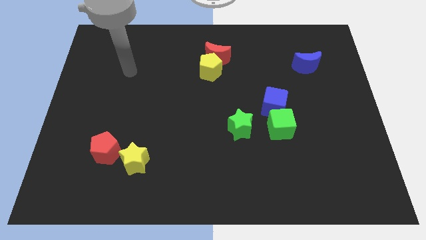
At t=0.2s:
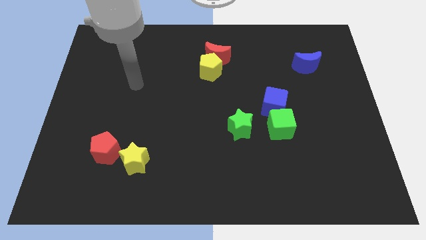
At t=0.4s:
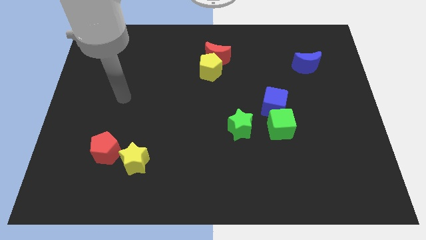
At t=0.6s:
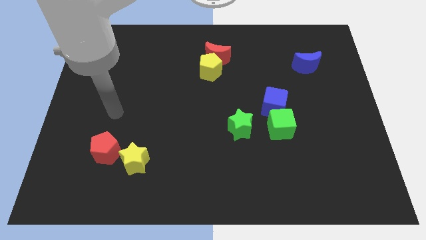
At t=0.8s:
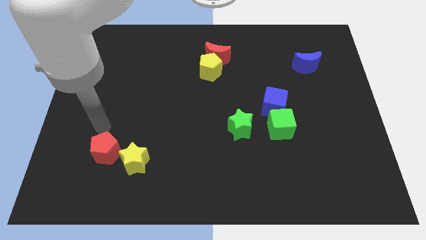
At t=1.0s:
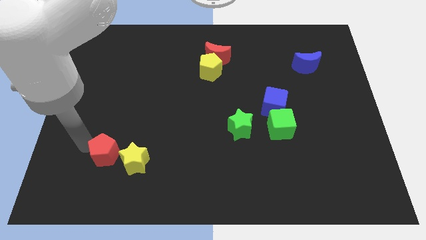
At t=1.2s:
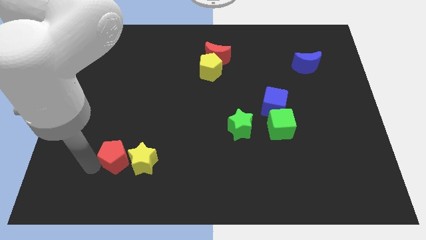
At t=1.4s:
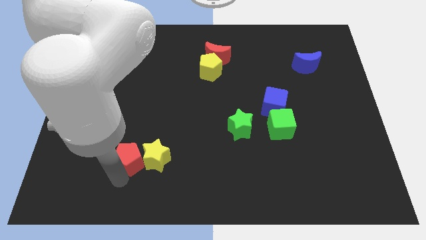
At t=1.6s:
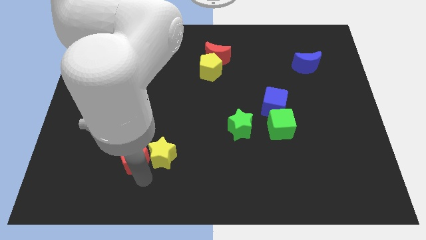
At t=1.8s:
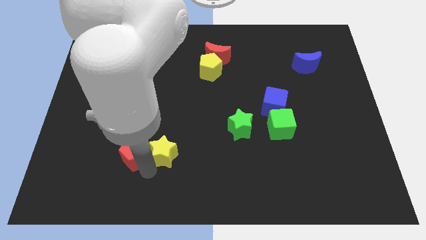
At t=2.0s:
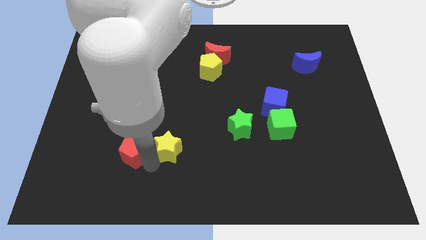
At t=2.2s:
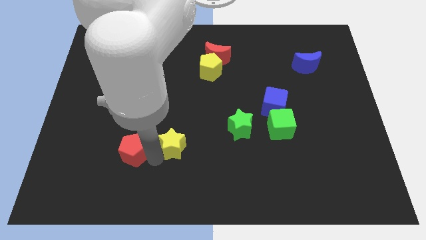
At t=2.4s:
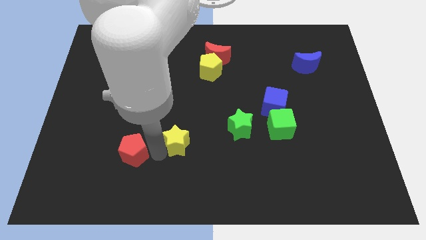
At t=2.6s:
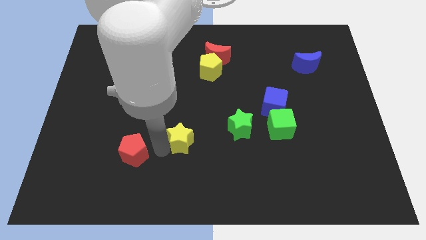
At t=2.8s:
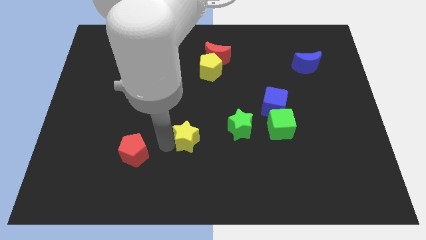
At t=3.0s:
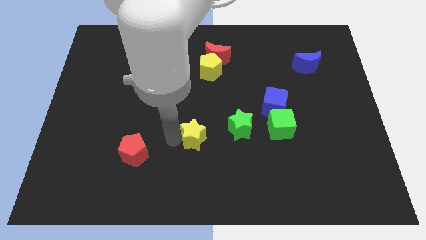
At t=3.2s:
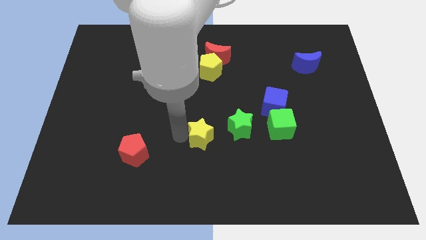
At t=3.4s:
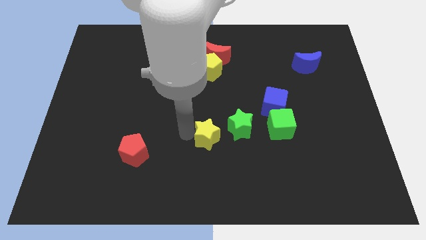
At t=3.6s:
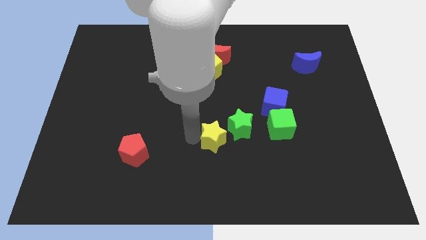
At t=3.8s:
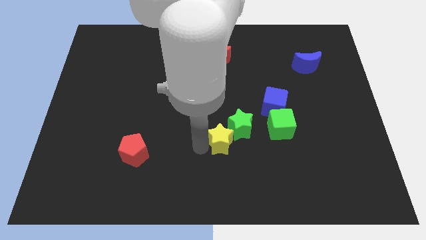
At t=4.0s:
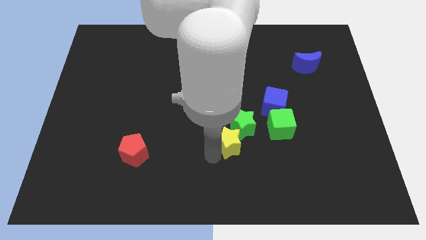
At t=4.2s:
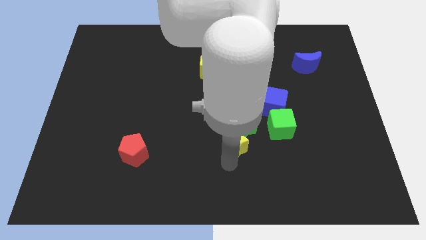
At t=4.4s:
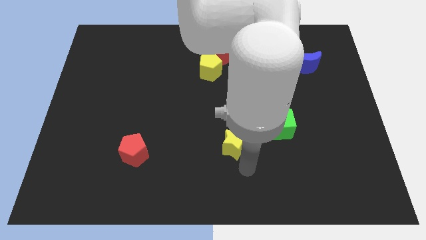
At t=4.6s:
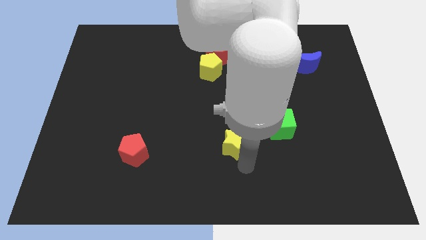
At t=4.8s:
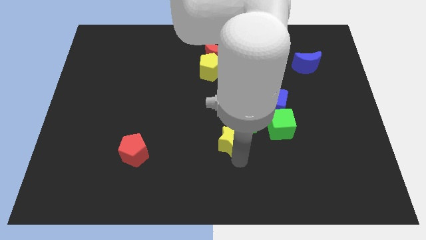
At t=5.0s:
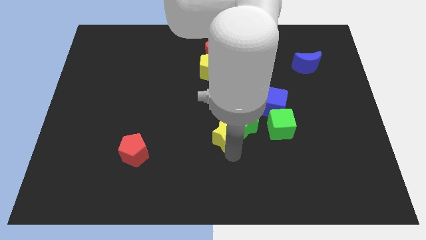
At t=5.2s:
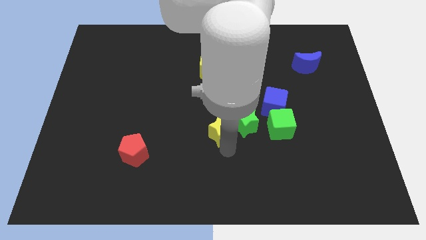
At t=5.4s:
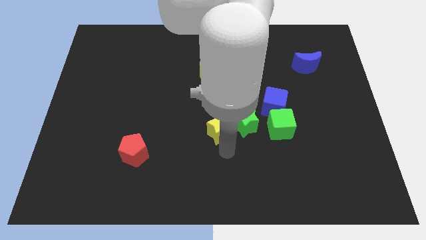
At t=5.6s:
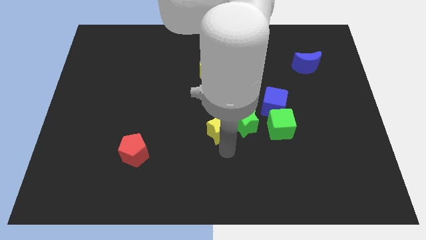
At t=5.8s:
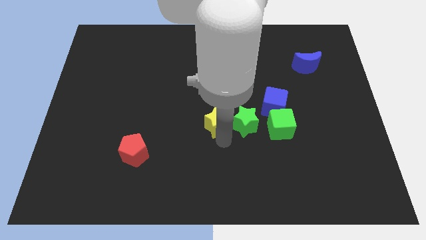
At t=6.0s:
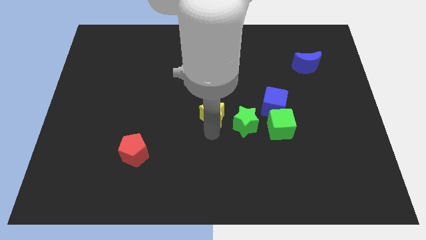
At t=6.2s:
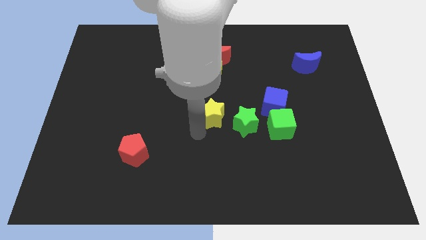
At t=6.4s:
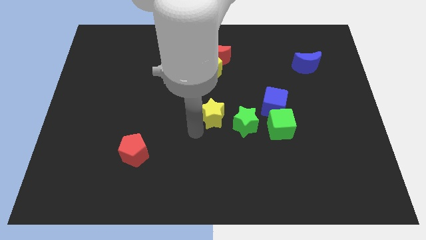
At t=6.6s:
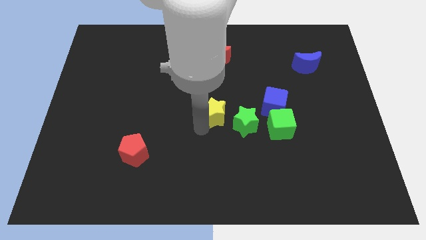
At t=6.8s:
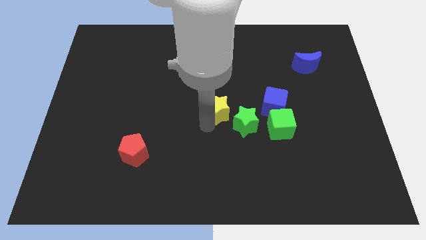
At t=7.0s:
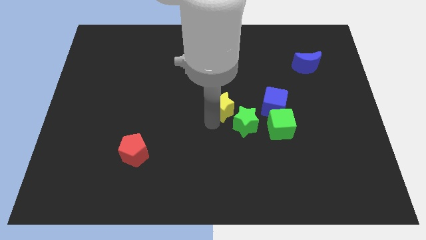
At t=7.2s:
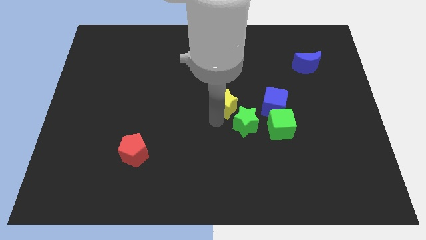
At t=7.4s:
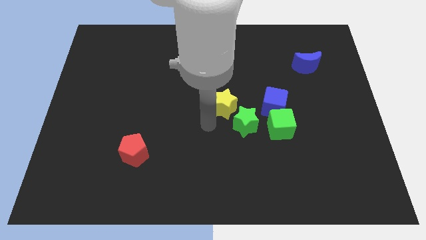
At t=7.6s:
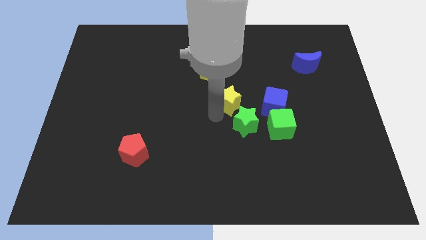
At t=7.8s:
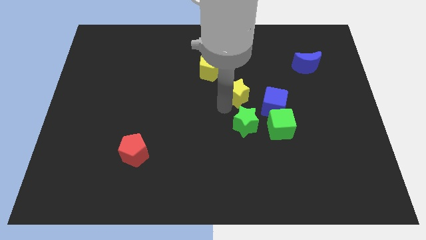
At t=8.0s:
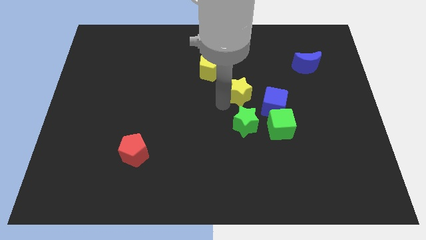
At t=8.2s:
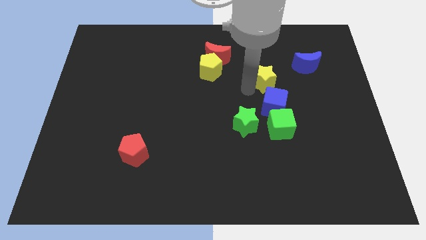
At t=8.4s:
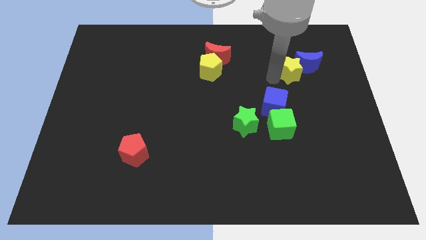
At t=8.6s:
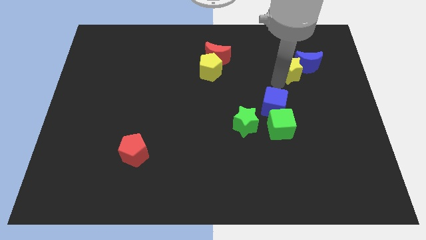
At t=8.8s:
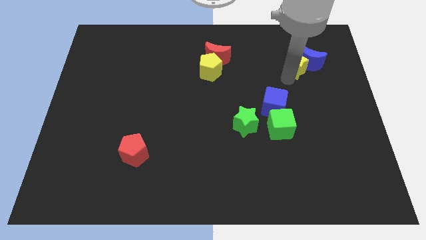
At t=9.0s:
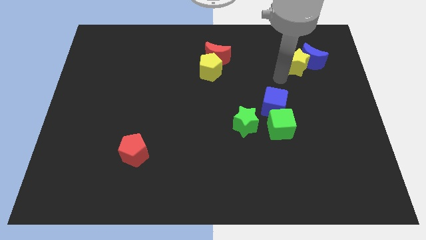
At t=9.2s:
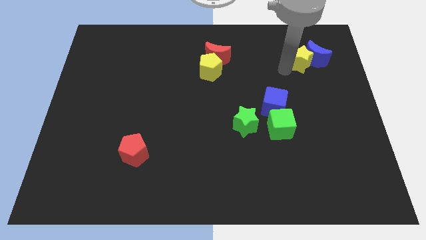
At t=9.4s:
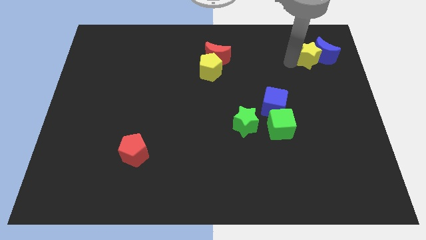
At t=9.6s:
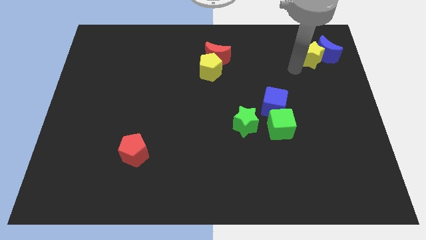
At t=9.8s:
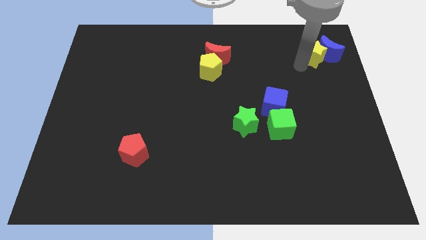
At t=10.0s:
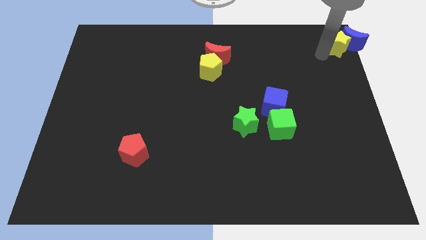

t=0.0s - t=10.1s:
push the yellow star to the top right

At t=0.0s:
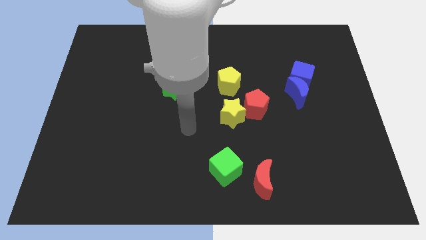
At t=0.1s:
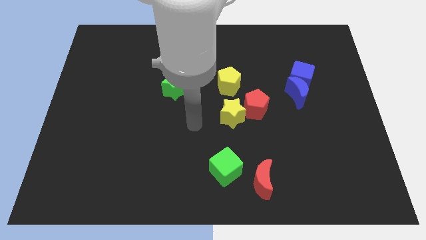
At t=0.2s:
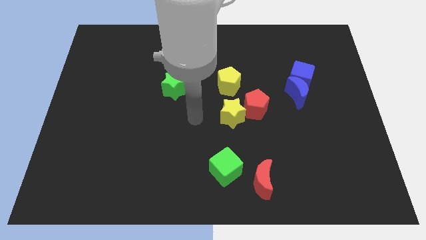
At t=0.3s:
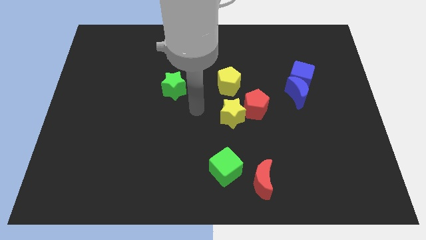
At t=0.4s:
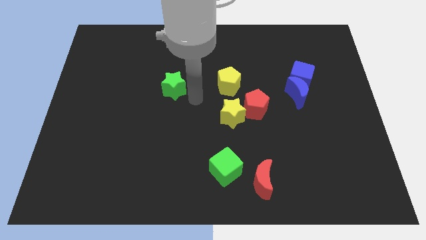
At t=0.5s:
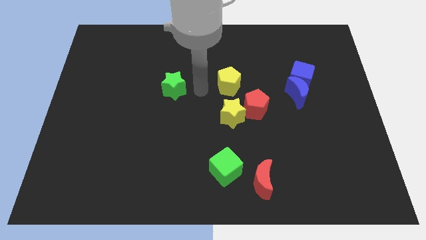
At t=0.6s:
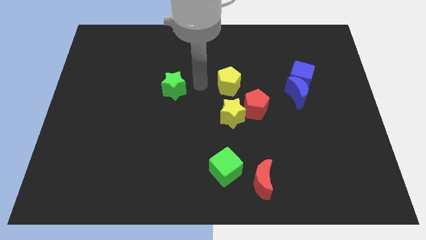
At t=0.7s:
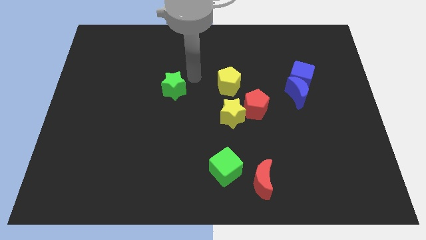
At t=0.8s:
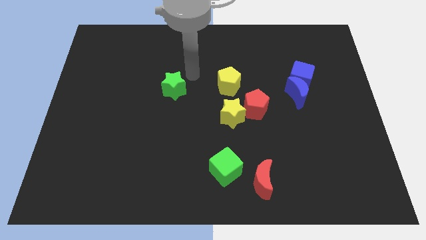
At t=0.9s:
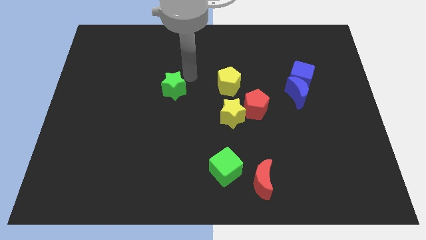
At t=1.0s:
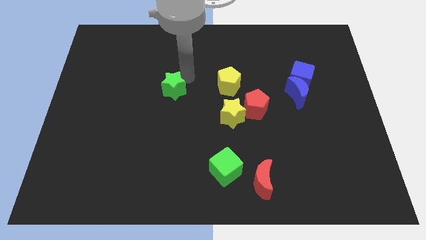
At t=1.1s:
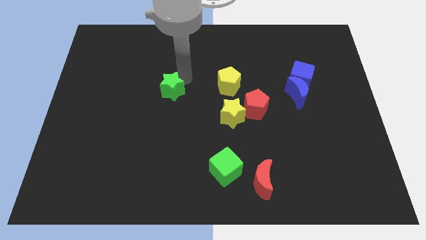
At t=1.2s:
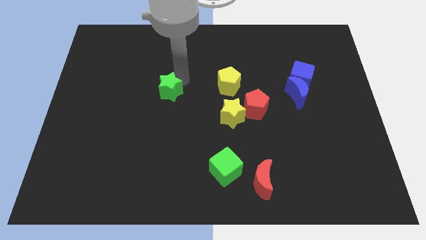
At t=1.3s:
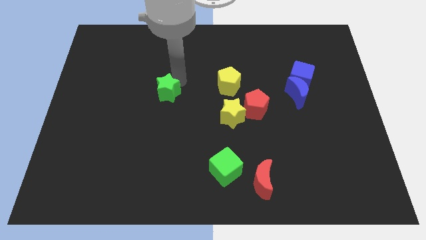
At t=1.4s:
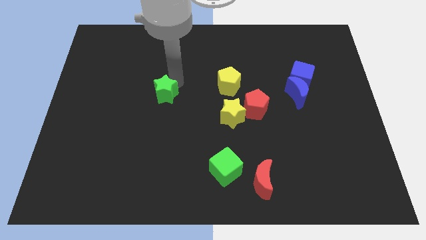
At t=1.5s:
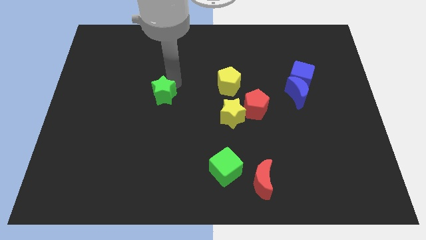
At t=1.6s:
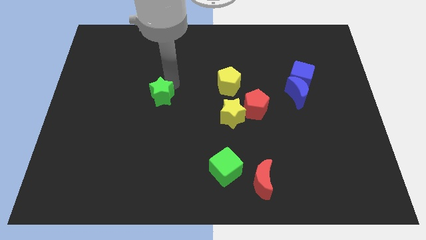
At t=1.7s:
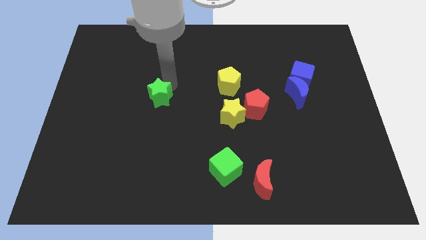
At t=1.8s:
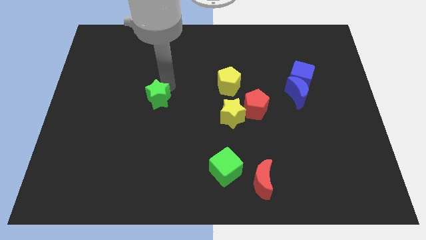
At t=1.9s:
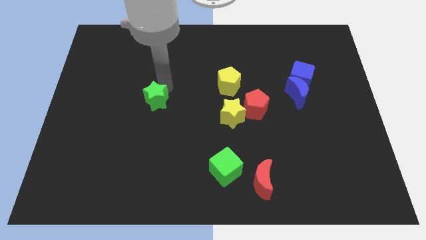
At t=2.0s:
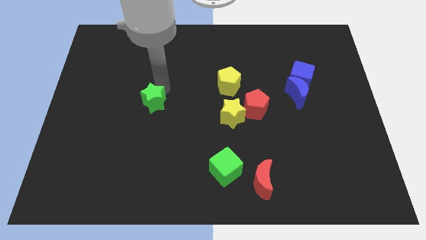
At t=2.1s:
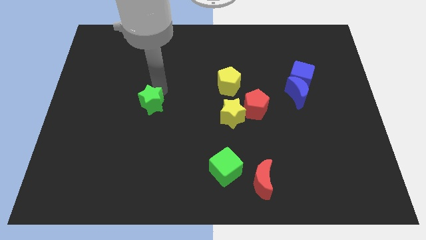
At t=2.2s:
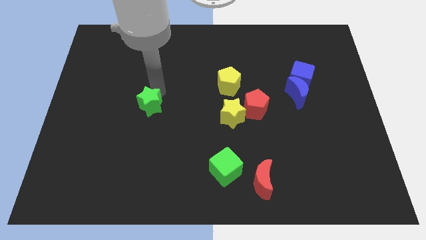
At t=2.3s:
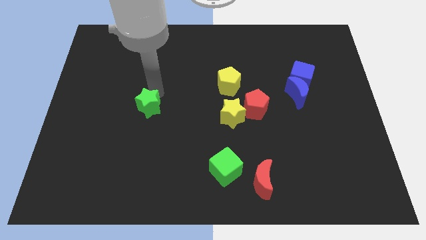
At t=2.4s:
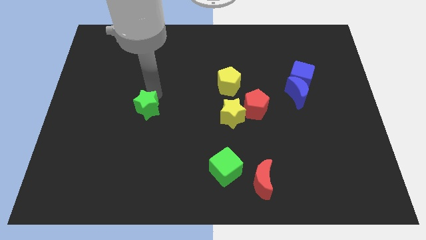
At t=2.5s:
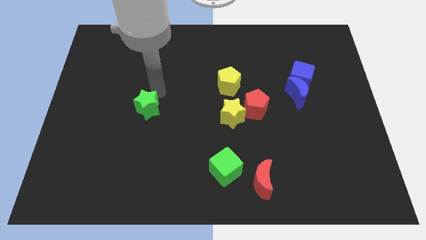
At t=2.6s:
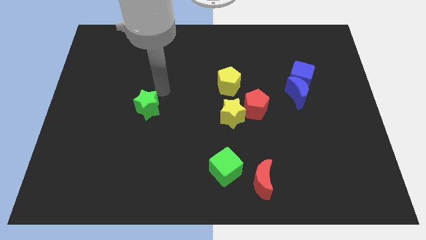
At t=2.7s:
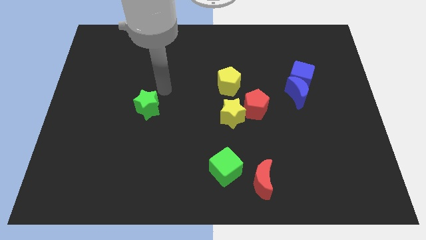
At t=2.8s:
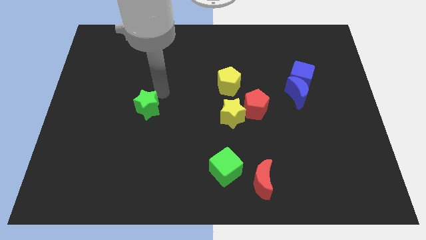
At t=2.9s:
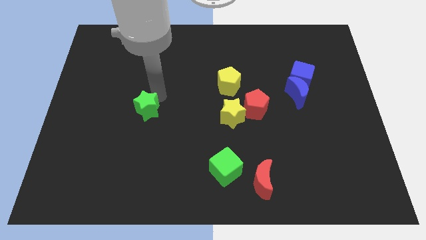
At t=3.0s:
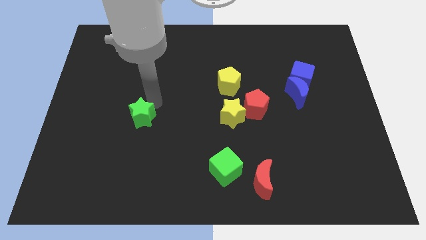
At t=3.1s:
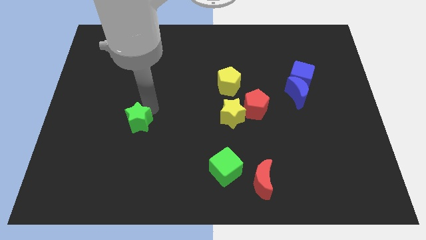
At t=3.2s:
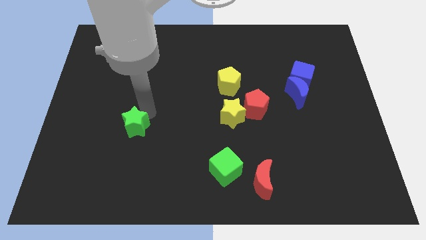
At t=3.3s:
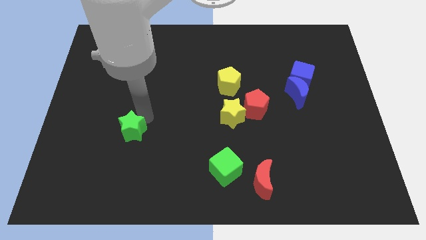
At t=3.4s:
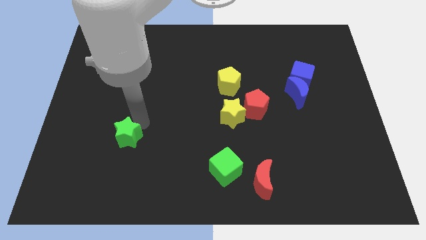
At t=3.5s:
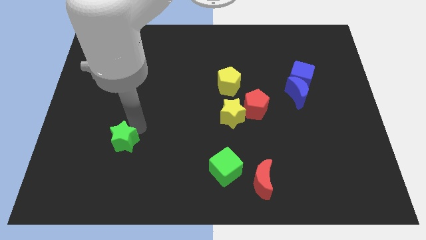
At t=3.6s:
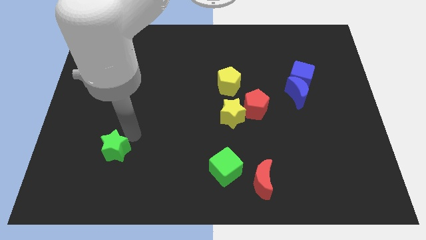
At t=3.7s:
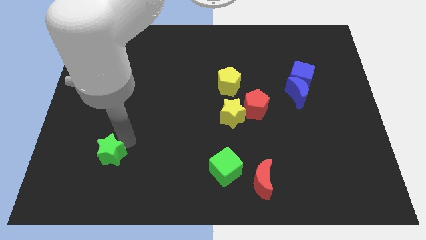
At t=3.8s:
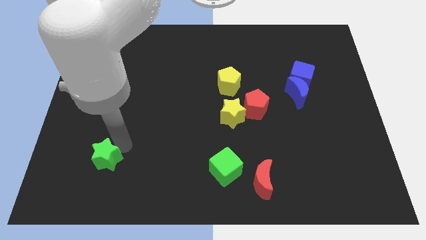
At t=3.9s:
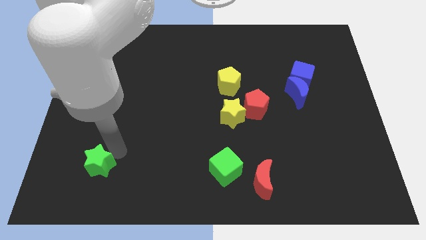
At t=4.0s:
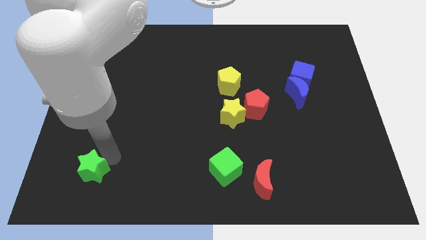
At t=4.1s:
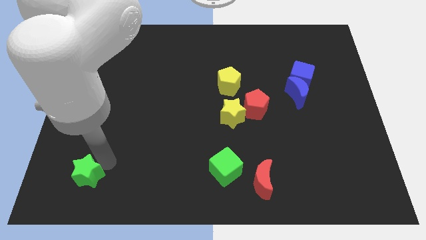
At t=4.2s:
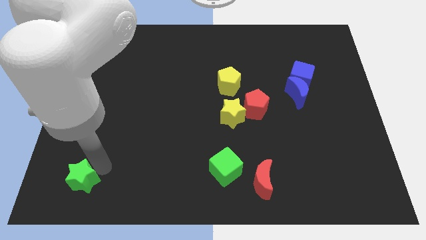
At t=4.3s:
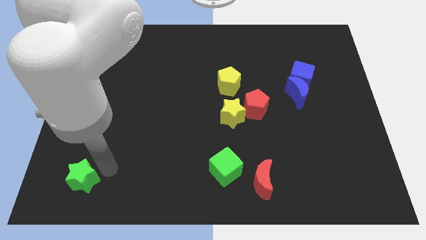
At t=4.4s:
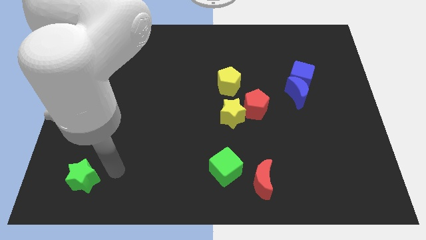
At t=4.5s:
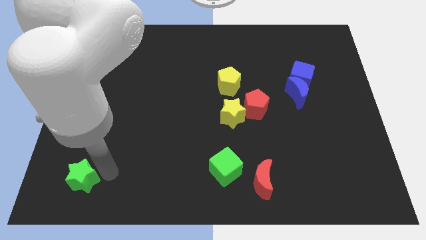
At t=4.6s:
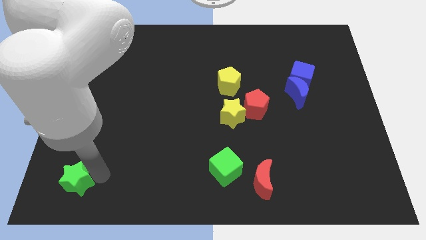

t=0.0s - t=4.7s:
move the green star to the bottom left
